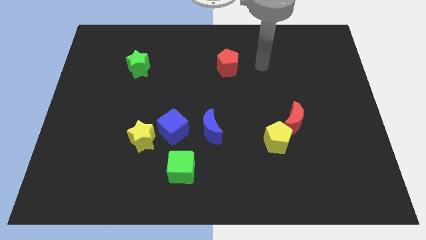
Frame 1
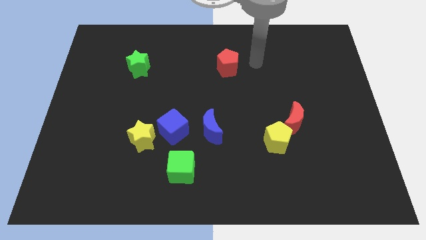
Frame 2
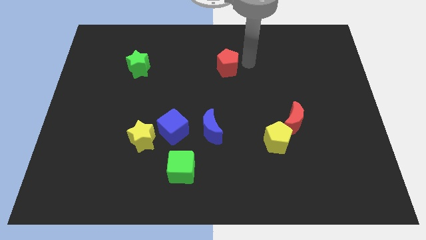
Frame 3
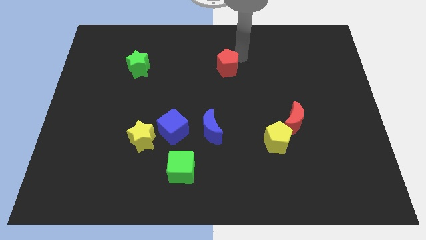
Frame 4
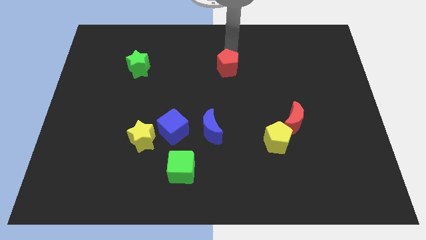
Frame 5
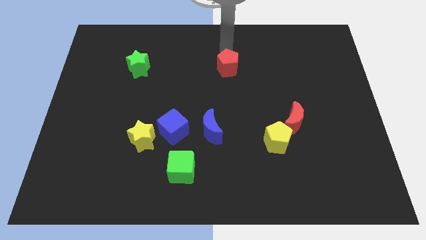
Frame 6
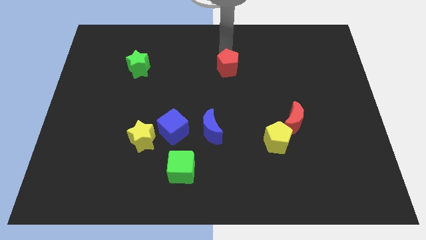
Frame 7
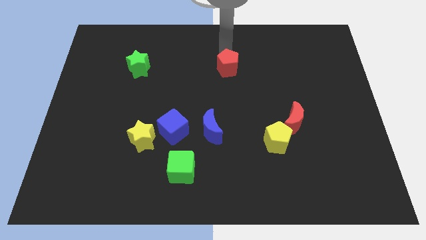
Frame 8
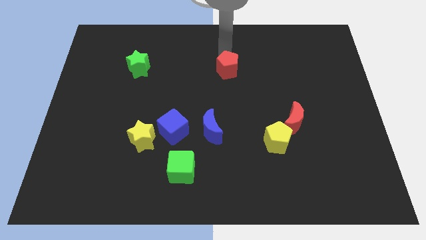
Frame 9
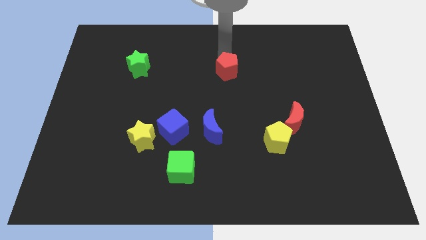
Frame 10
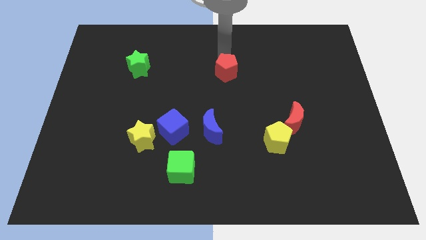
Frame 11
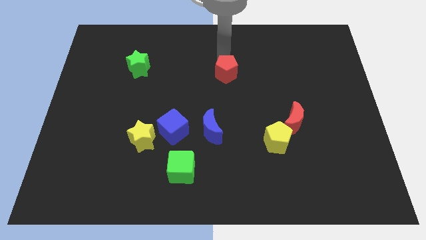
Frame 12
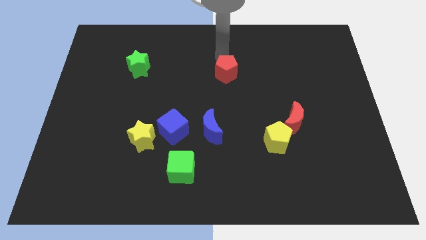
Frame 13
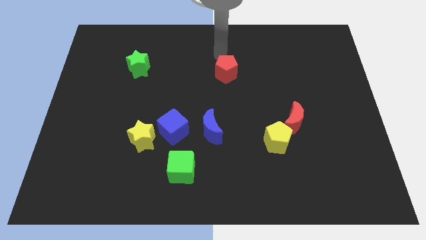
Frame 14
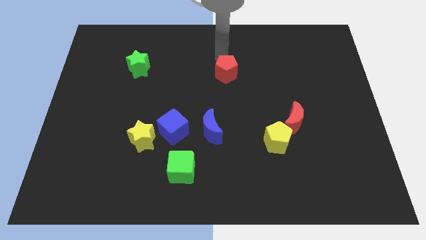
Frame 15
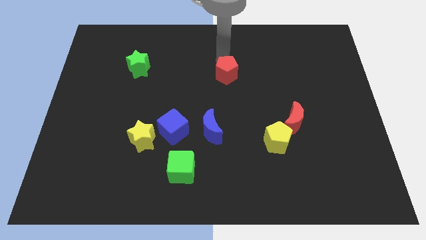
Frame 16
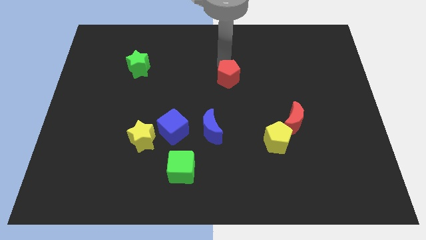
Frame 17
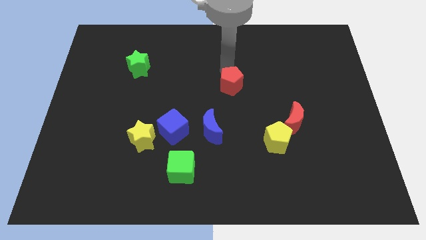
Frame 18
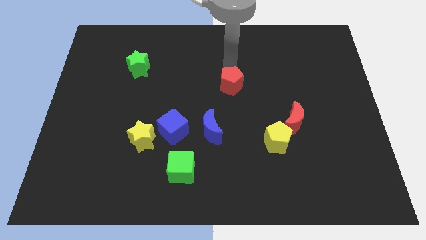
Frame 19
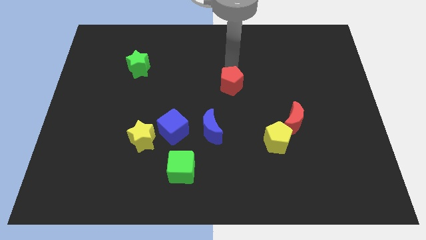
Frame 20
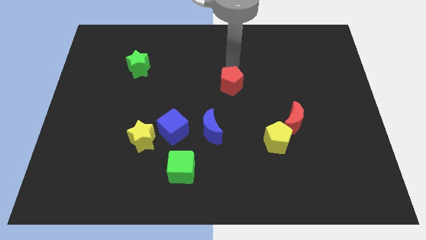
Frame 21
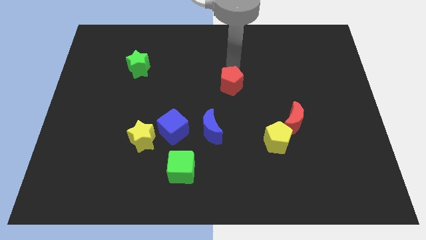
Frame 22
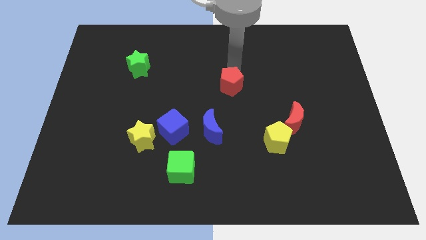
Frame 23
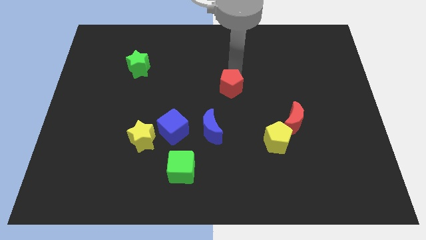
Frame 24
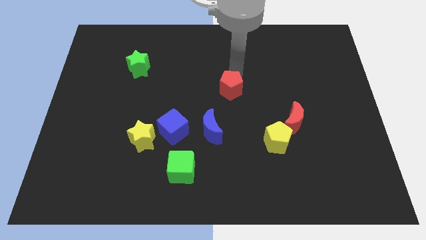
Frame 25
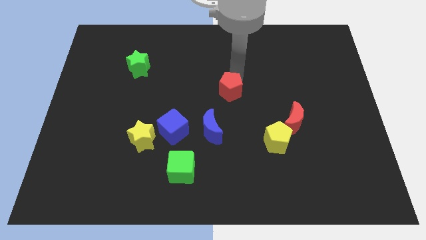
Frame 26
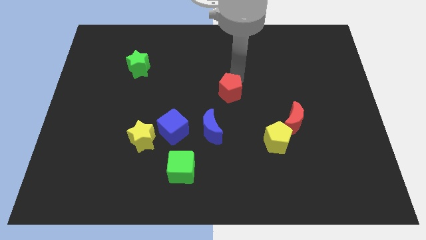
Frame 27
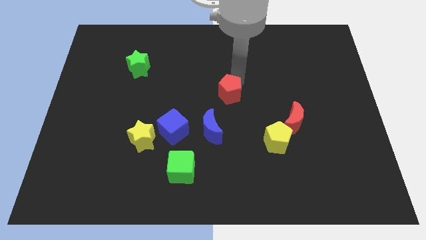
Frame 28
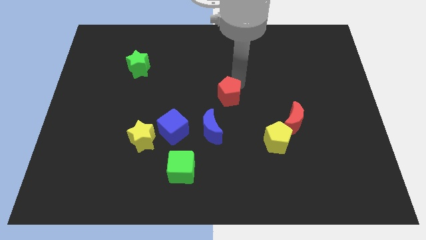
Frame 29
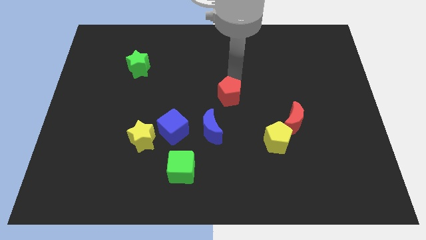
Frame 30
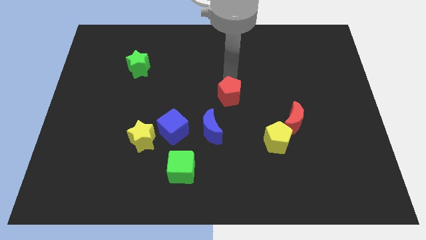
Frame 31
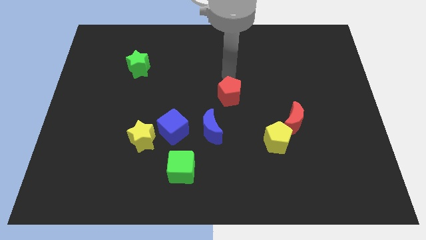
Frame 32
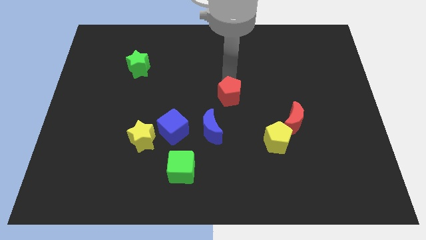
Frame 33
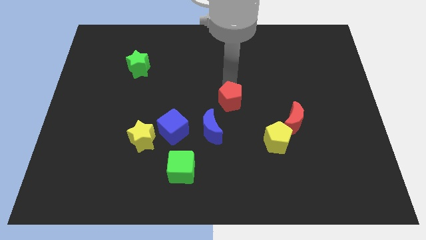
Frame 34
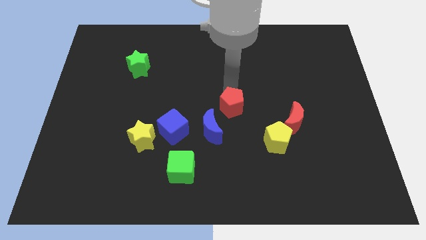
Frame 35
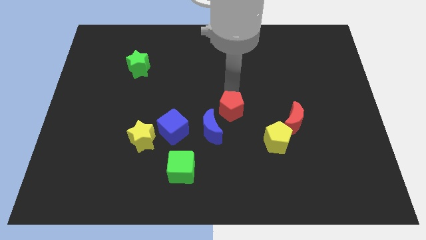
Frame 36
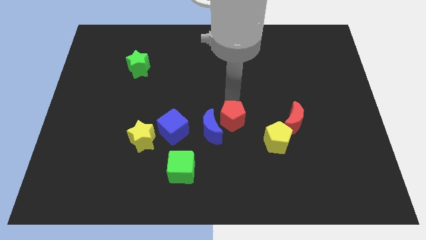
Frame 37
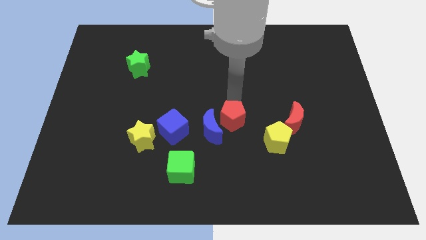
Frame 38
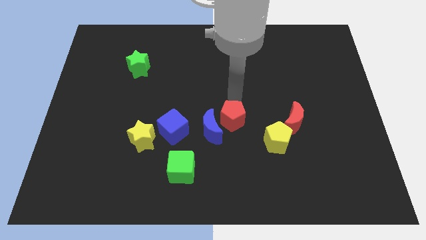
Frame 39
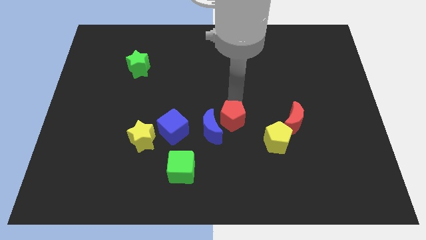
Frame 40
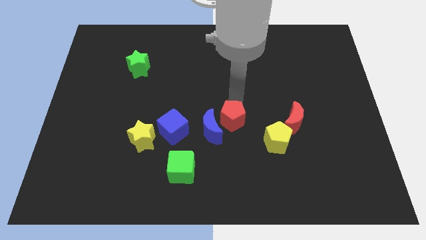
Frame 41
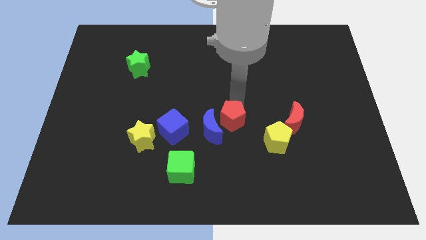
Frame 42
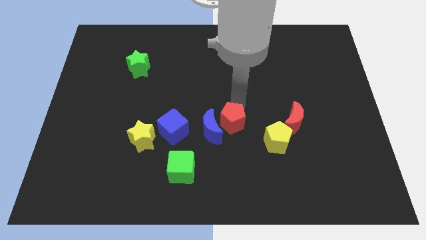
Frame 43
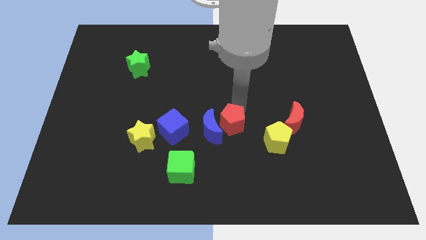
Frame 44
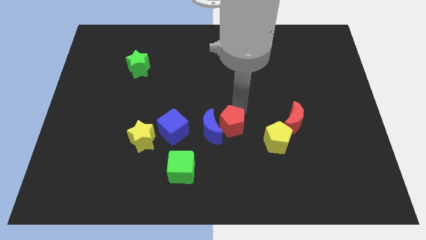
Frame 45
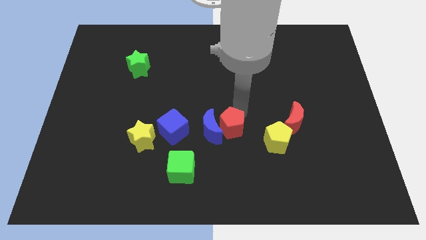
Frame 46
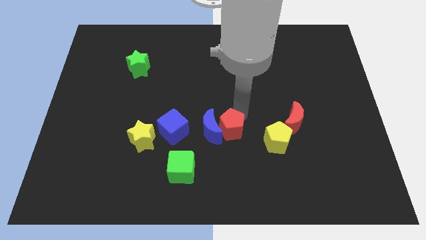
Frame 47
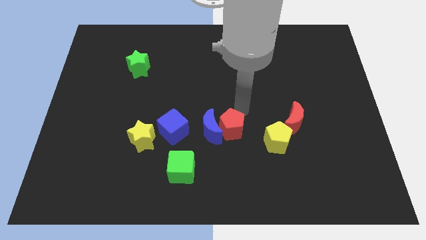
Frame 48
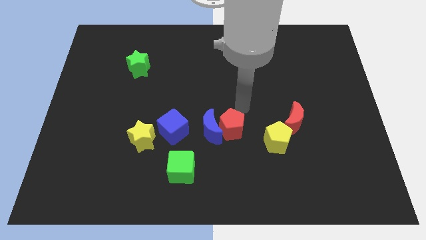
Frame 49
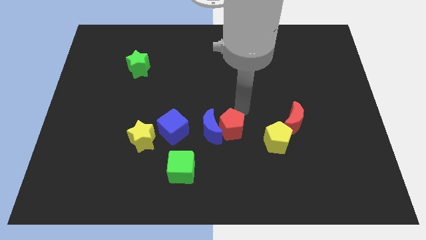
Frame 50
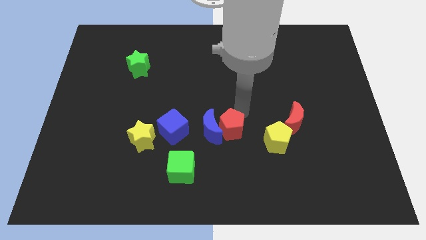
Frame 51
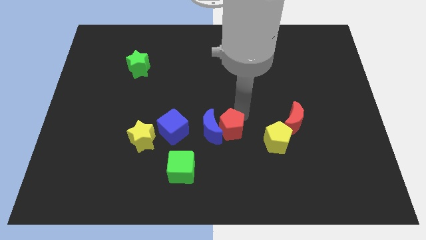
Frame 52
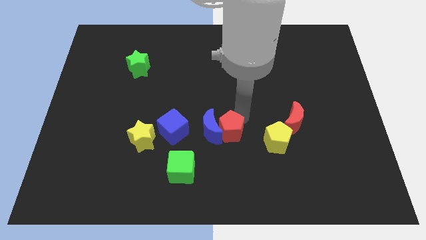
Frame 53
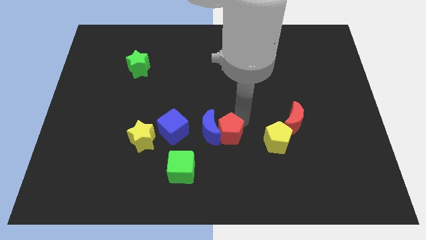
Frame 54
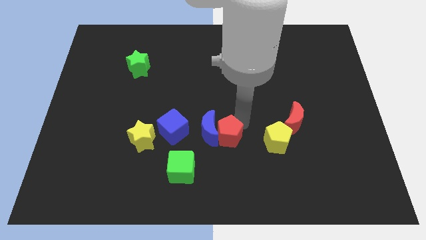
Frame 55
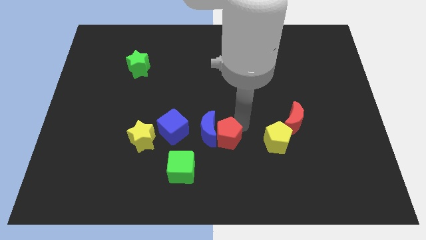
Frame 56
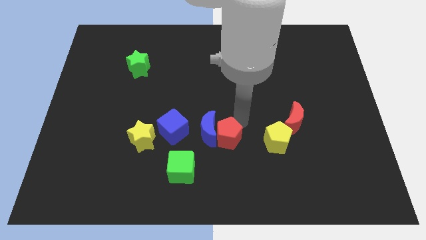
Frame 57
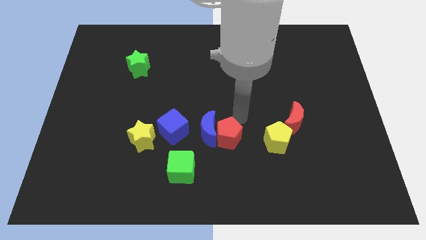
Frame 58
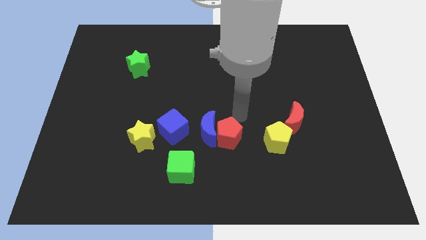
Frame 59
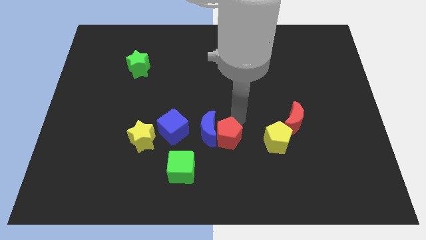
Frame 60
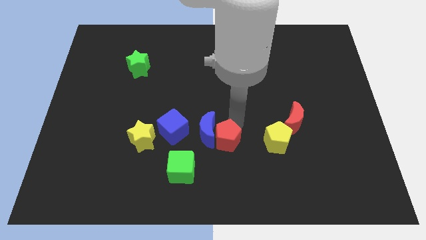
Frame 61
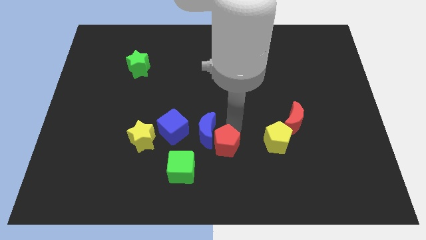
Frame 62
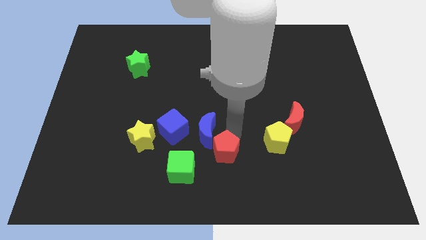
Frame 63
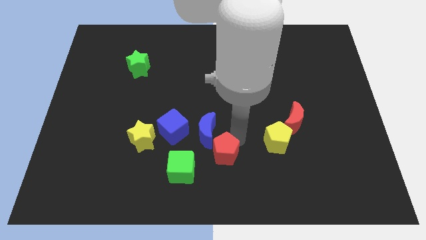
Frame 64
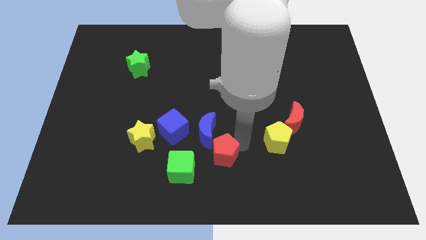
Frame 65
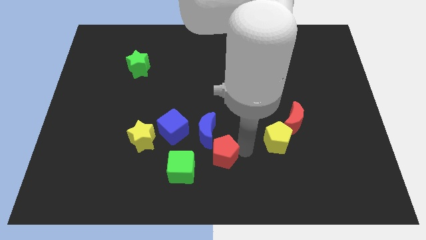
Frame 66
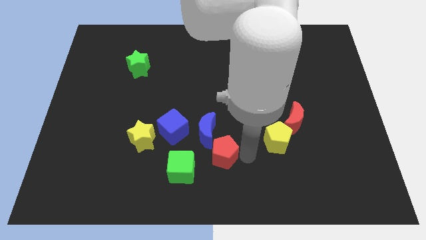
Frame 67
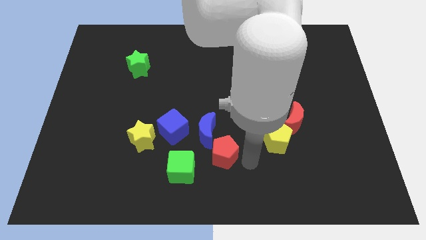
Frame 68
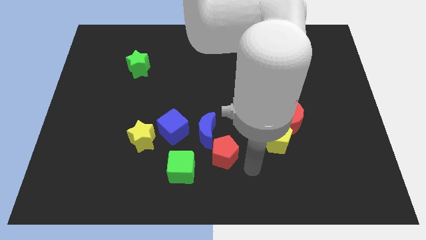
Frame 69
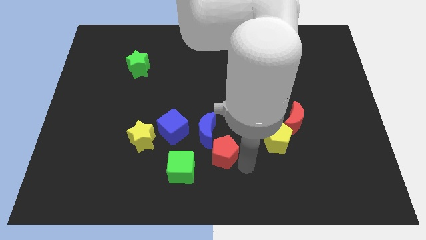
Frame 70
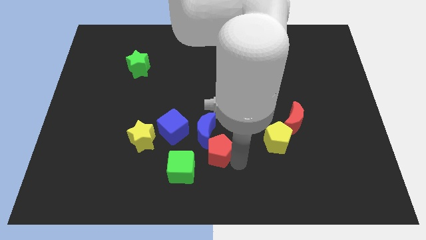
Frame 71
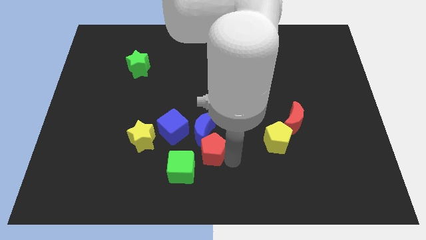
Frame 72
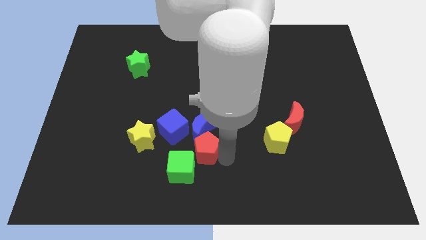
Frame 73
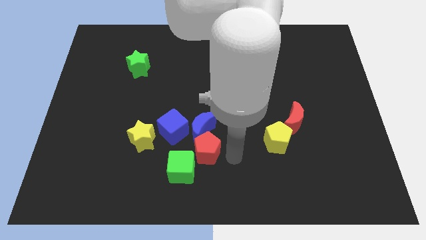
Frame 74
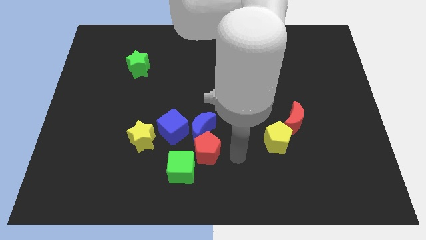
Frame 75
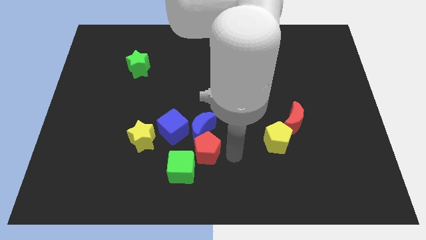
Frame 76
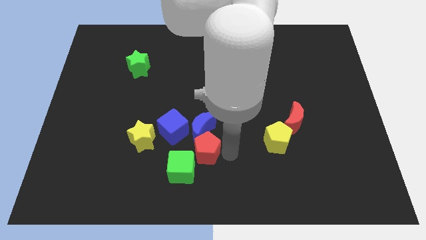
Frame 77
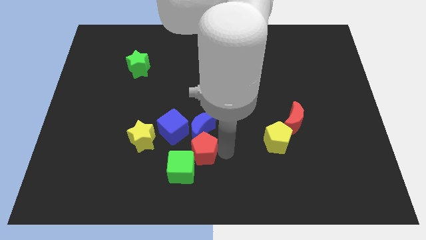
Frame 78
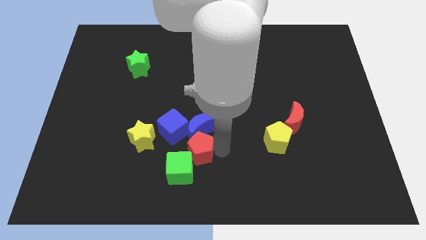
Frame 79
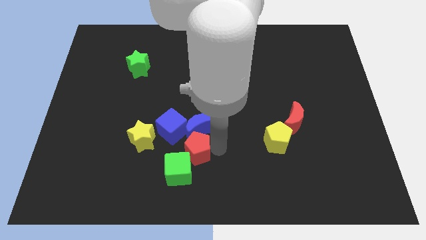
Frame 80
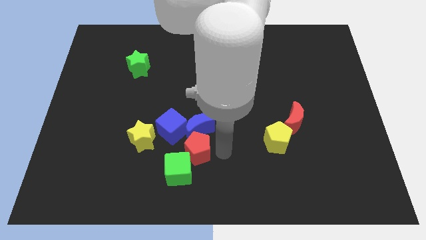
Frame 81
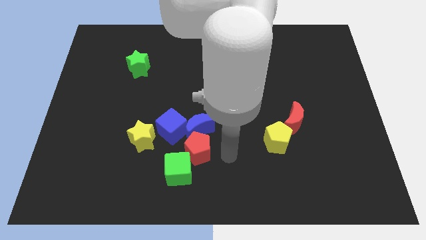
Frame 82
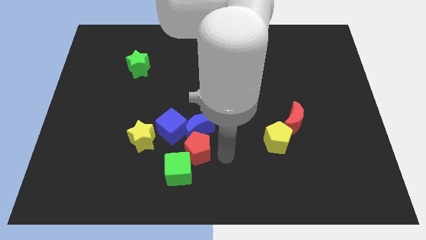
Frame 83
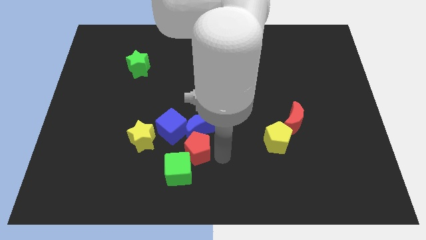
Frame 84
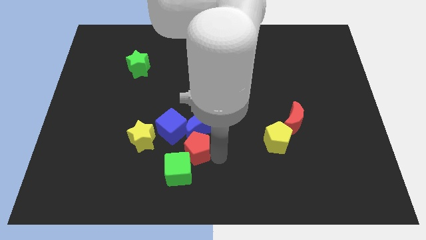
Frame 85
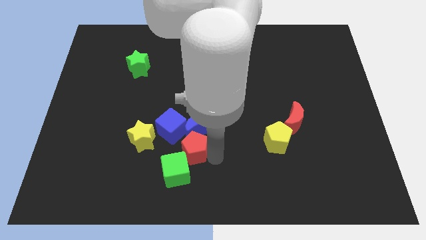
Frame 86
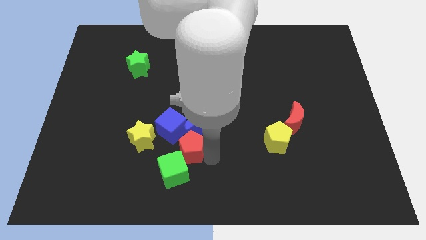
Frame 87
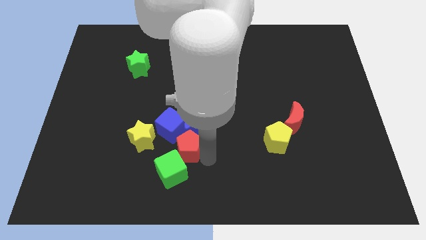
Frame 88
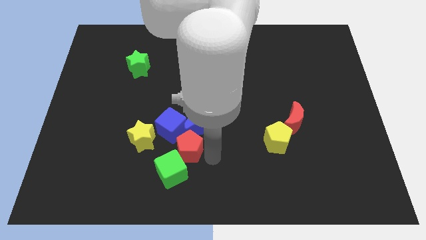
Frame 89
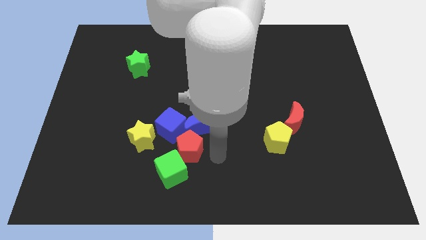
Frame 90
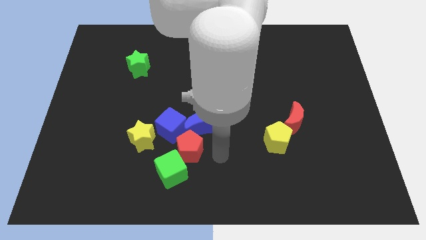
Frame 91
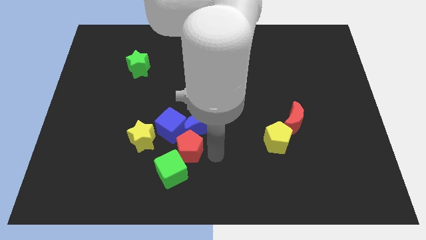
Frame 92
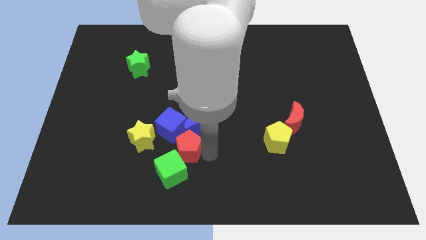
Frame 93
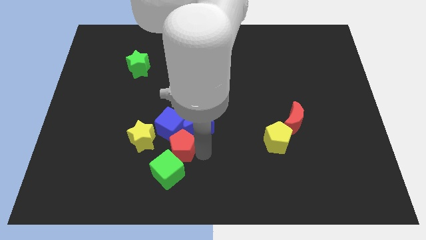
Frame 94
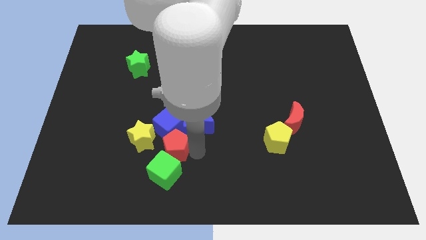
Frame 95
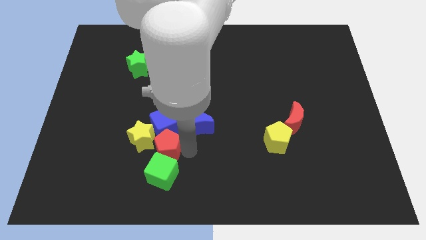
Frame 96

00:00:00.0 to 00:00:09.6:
slide the red pentagon diagonally down and to the left of the blue cube
